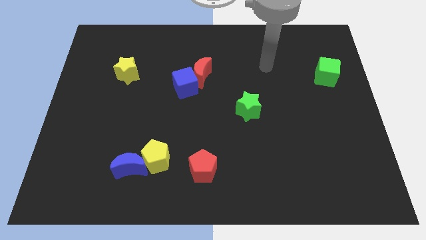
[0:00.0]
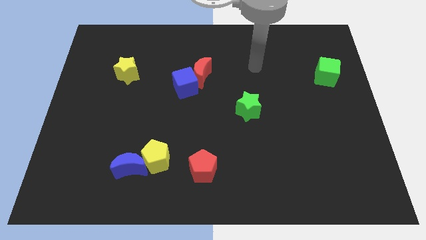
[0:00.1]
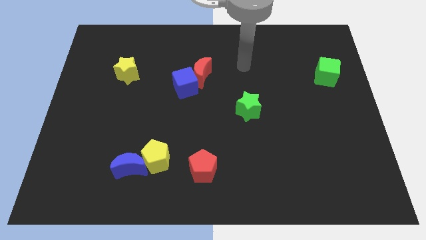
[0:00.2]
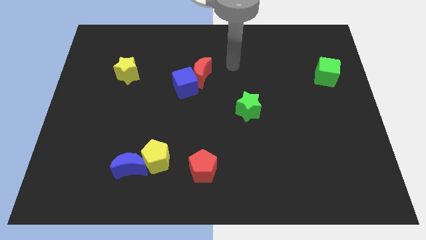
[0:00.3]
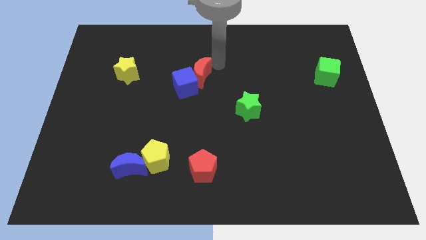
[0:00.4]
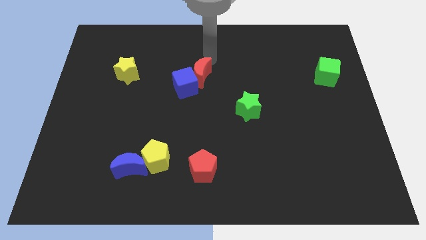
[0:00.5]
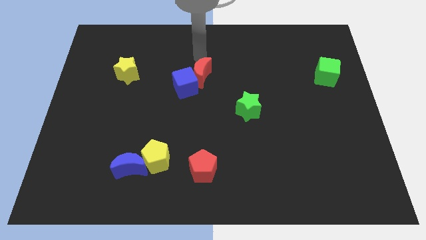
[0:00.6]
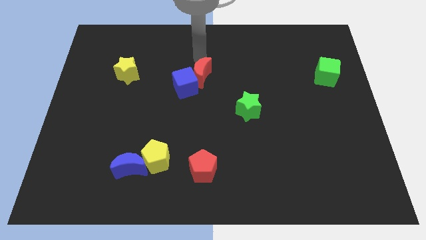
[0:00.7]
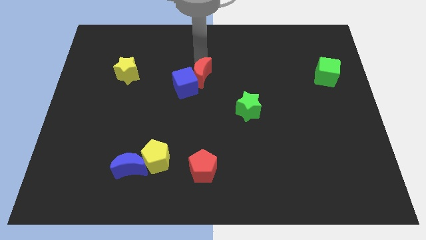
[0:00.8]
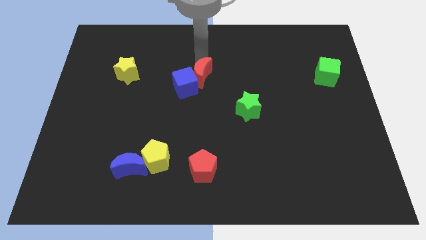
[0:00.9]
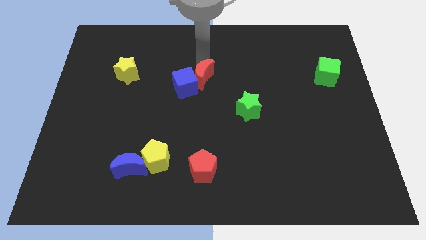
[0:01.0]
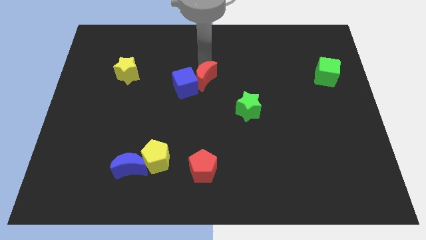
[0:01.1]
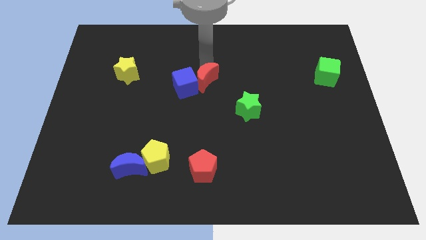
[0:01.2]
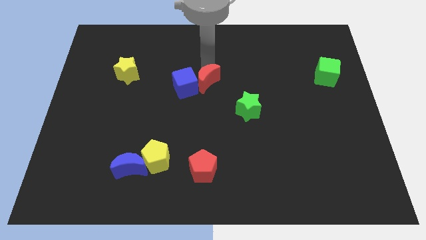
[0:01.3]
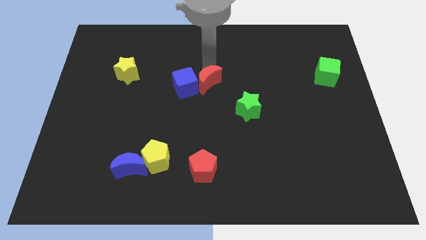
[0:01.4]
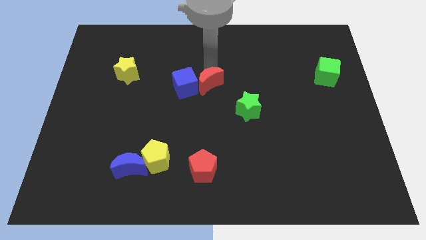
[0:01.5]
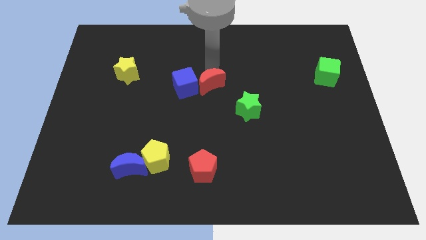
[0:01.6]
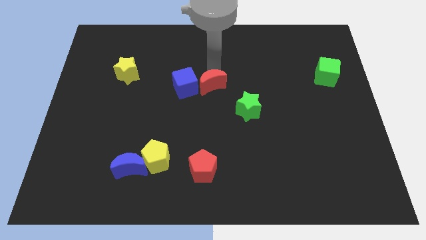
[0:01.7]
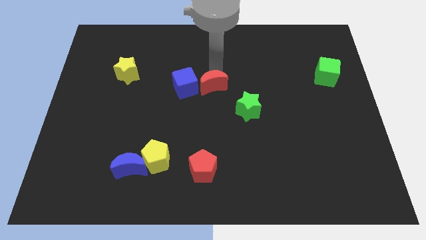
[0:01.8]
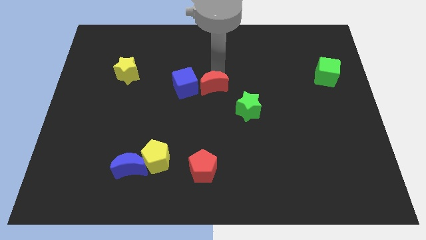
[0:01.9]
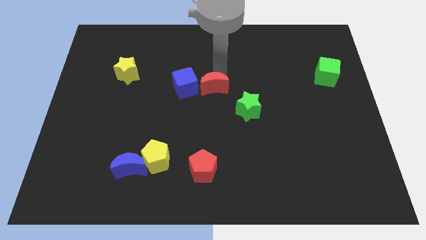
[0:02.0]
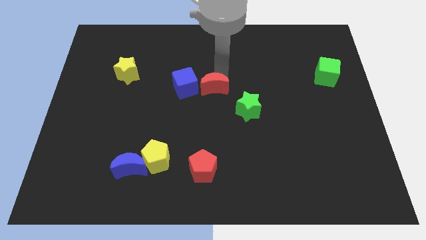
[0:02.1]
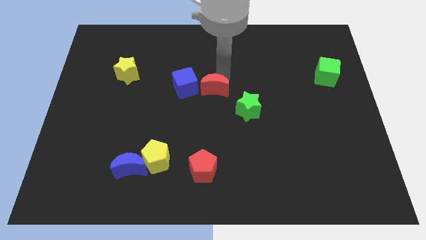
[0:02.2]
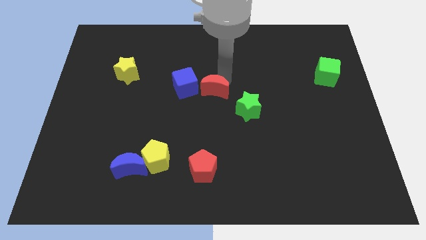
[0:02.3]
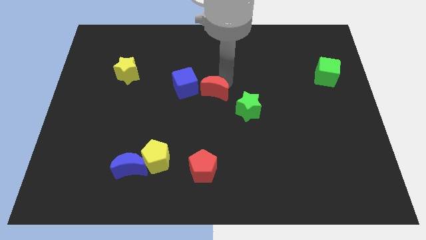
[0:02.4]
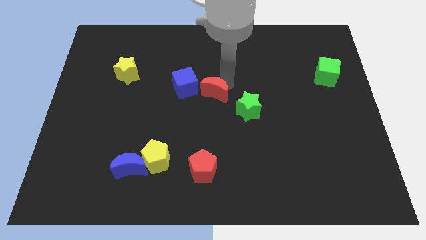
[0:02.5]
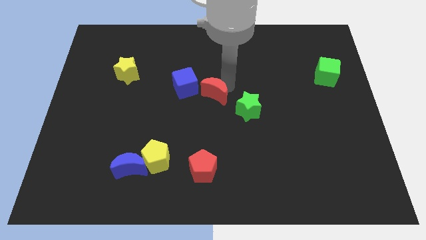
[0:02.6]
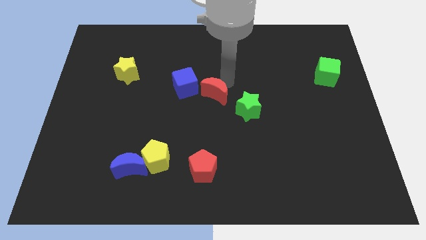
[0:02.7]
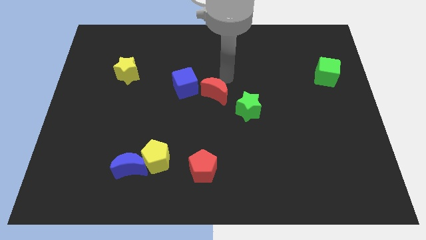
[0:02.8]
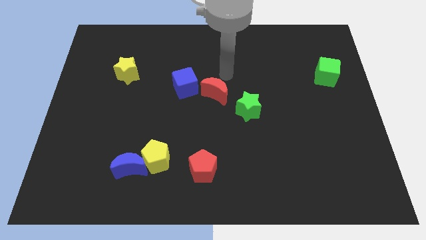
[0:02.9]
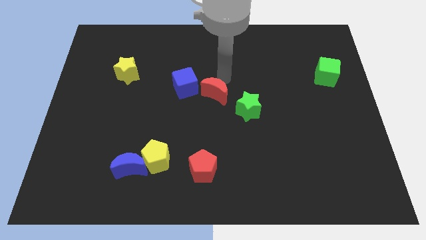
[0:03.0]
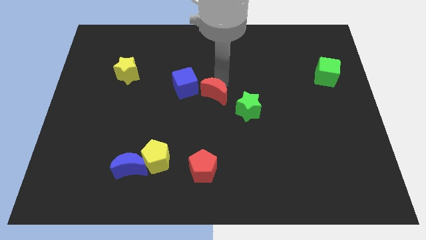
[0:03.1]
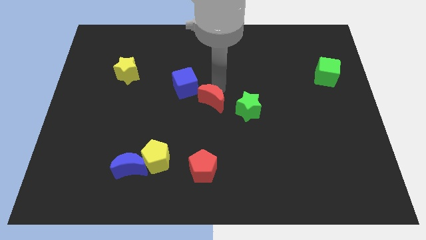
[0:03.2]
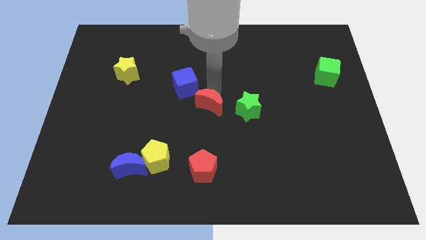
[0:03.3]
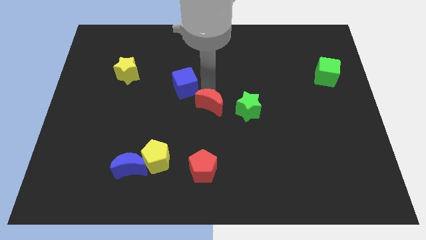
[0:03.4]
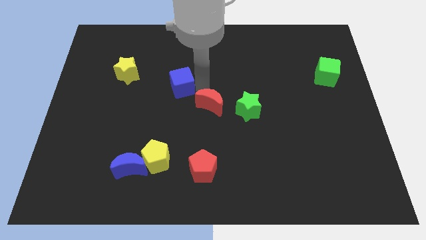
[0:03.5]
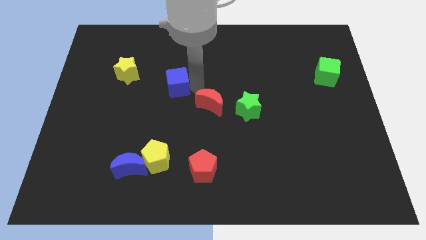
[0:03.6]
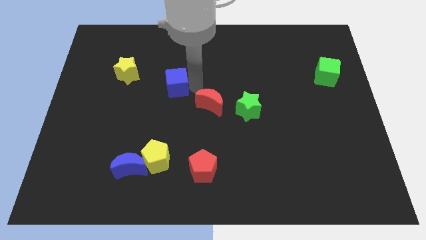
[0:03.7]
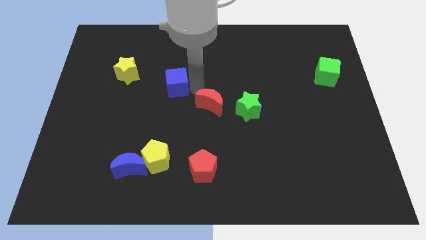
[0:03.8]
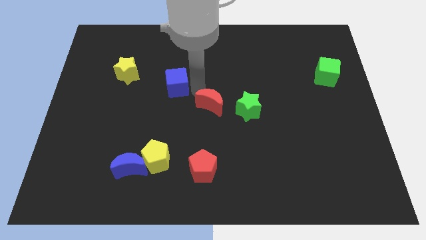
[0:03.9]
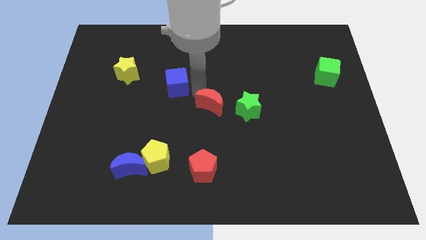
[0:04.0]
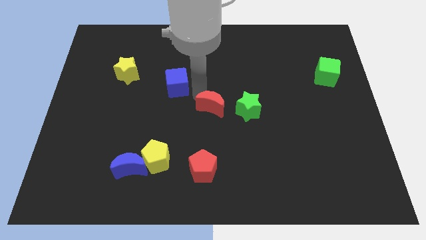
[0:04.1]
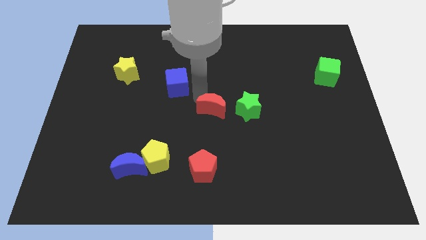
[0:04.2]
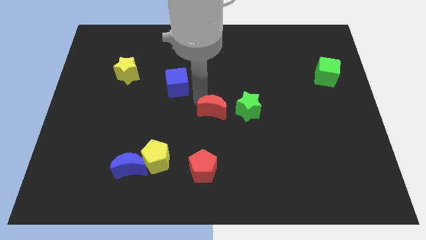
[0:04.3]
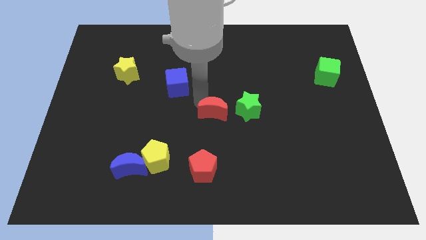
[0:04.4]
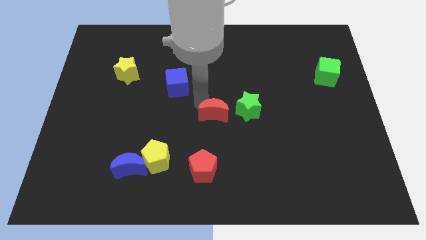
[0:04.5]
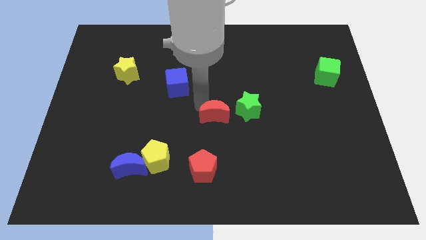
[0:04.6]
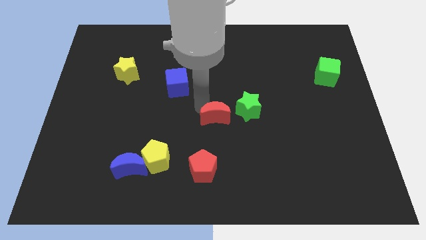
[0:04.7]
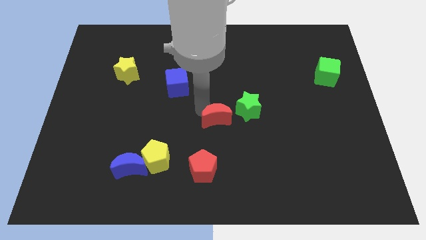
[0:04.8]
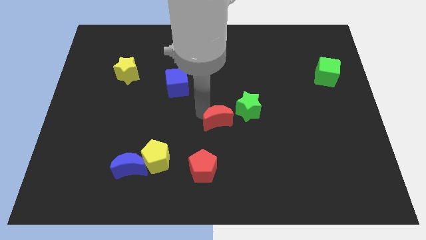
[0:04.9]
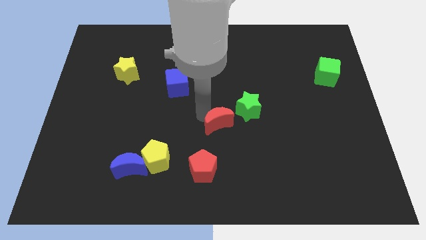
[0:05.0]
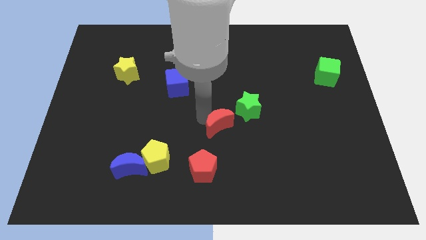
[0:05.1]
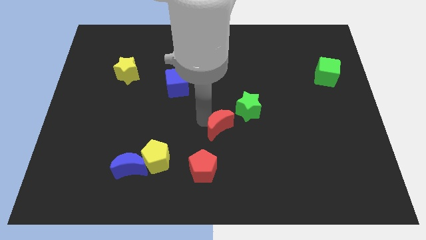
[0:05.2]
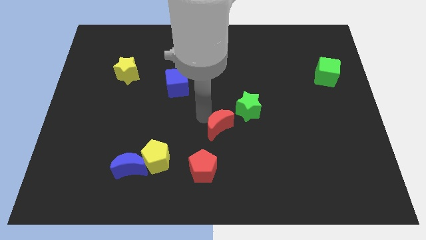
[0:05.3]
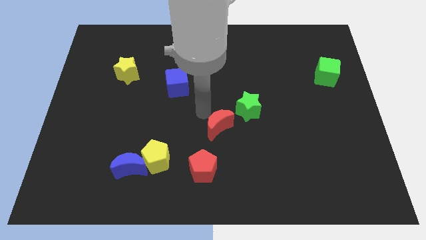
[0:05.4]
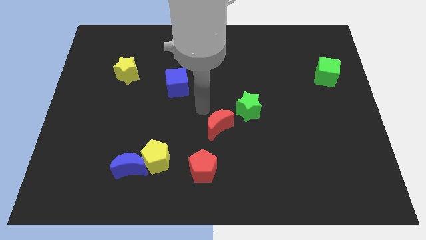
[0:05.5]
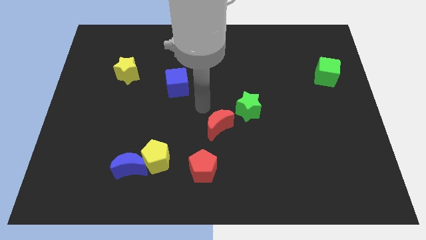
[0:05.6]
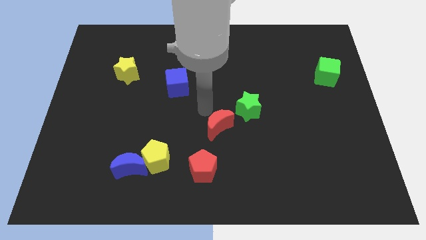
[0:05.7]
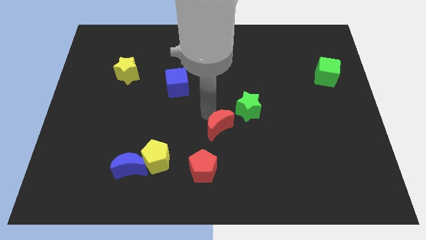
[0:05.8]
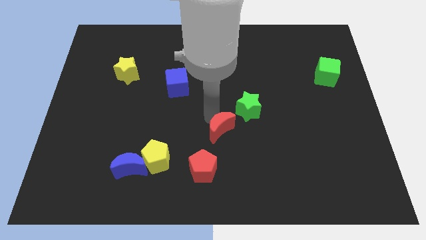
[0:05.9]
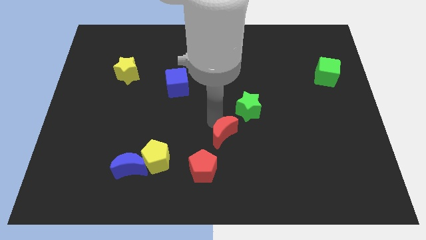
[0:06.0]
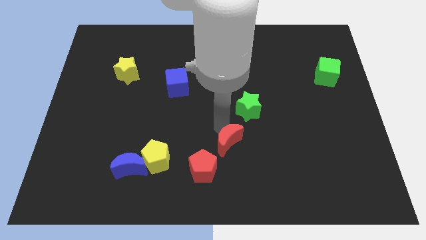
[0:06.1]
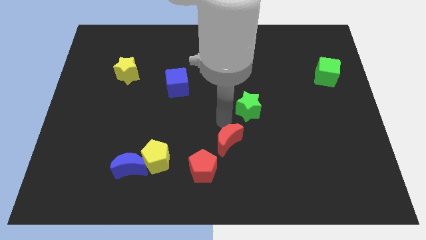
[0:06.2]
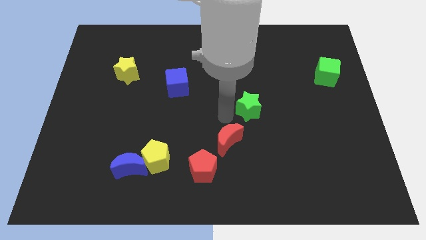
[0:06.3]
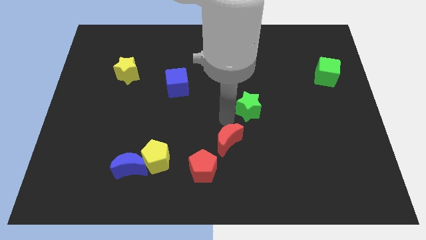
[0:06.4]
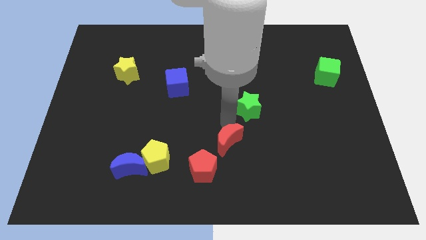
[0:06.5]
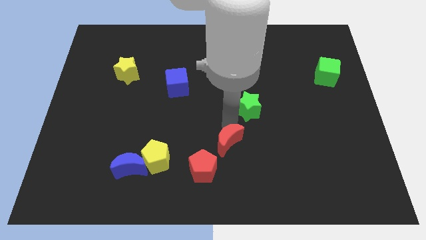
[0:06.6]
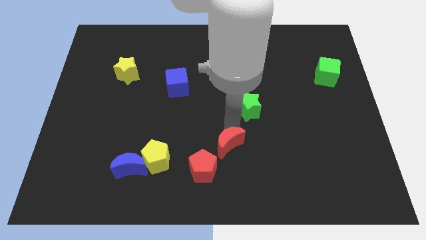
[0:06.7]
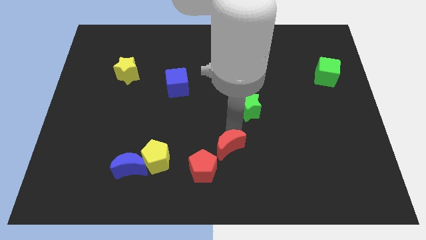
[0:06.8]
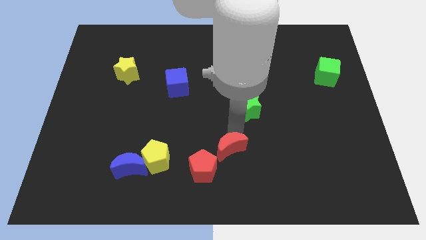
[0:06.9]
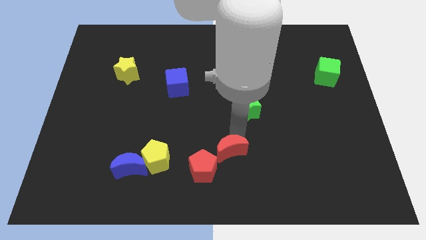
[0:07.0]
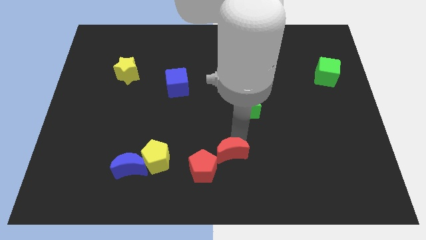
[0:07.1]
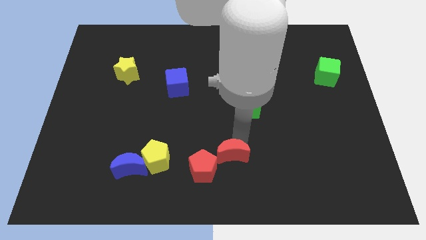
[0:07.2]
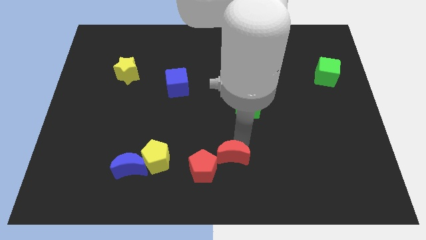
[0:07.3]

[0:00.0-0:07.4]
push the red moon to the bottom side
